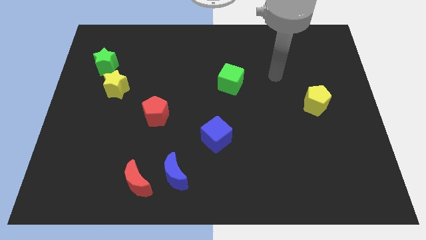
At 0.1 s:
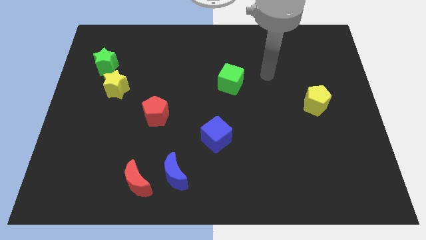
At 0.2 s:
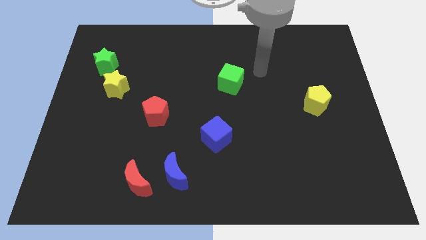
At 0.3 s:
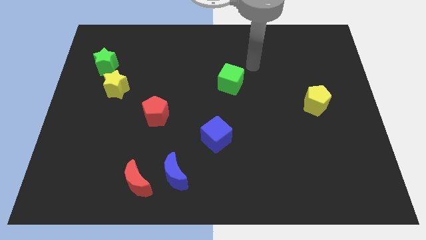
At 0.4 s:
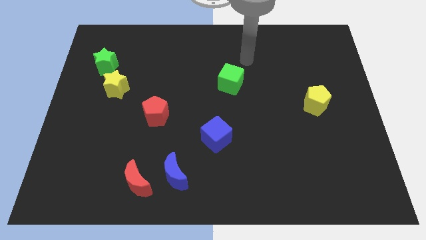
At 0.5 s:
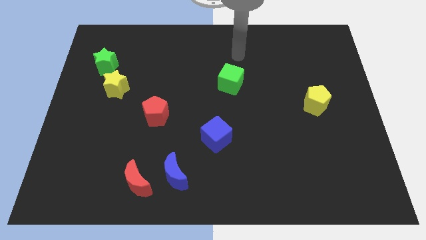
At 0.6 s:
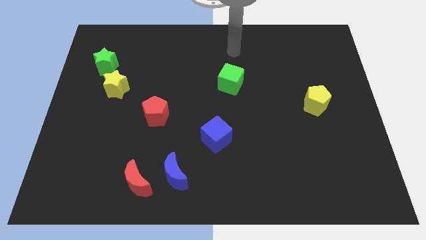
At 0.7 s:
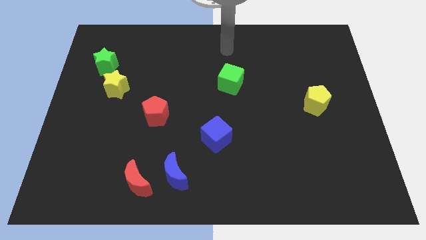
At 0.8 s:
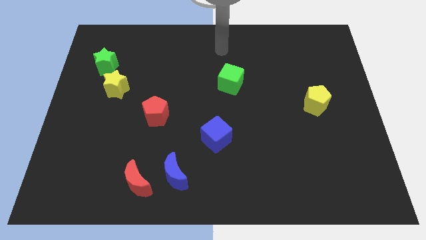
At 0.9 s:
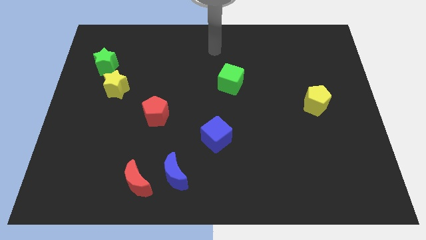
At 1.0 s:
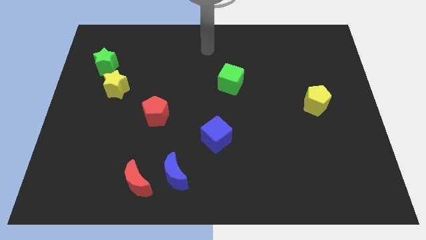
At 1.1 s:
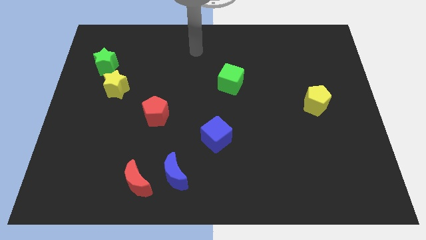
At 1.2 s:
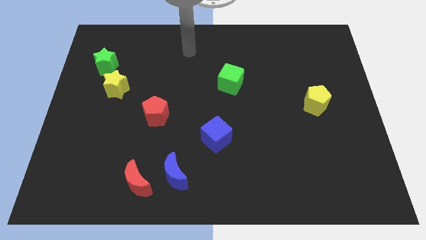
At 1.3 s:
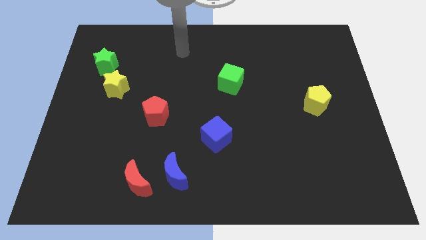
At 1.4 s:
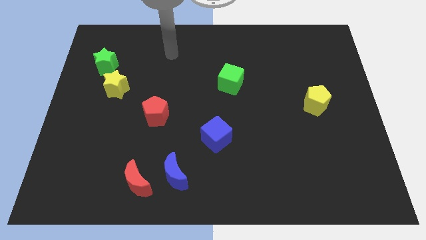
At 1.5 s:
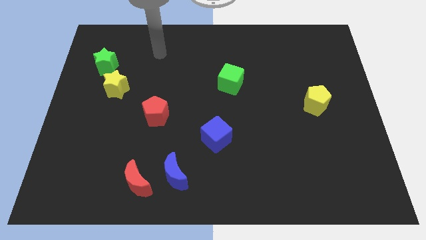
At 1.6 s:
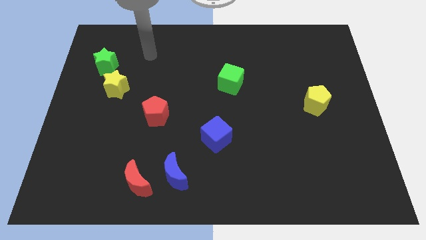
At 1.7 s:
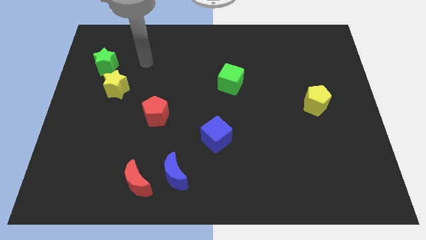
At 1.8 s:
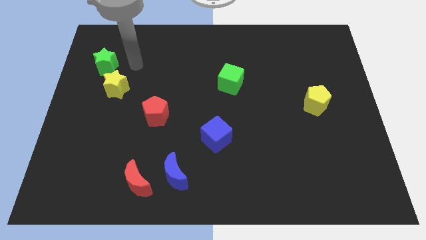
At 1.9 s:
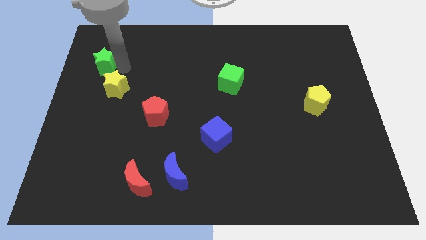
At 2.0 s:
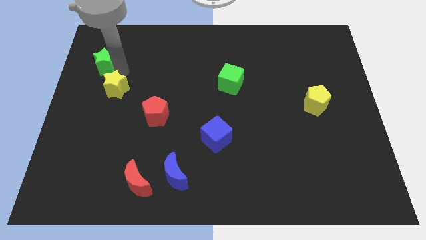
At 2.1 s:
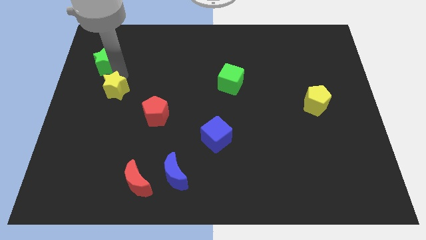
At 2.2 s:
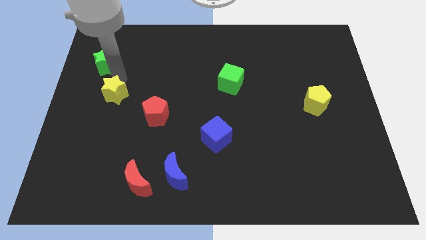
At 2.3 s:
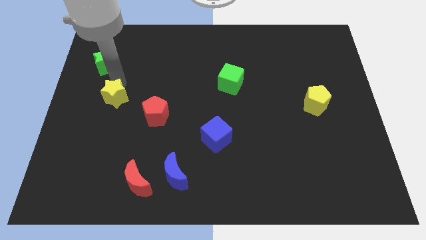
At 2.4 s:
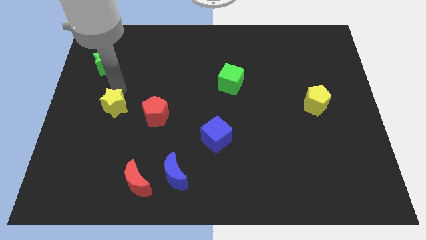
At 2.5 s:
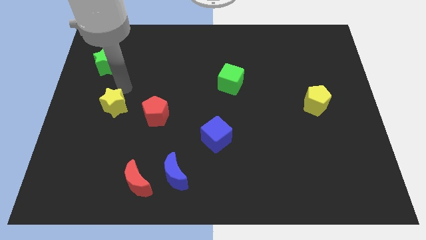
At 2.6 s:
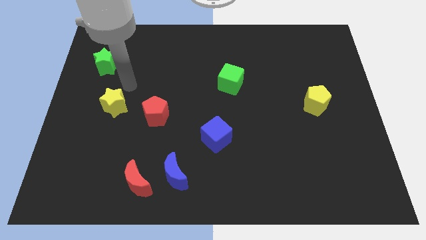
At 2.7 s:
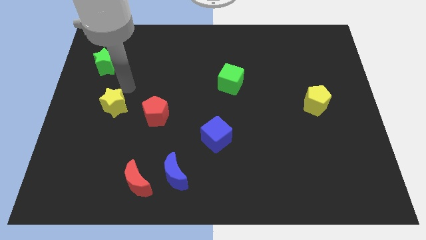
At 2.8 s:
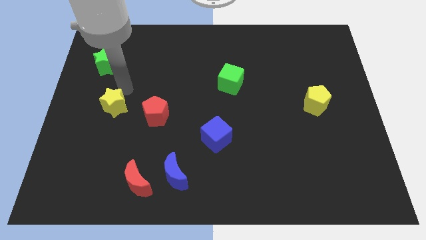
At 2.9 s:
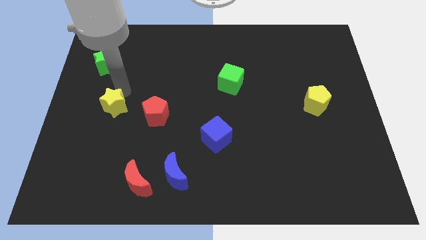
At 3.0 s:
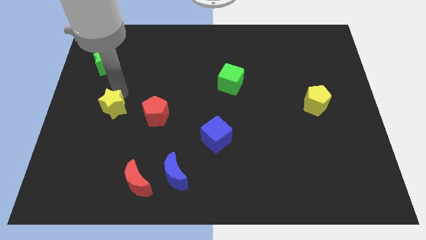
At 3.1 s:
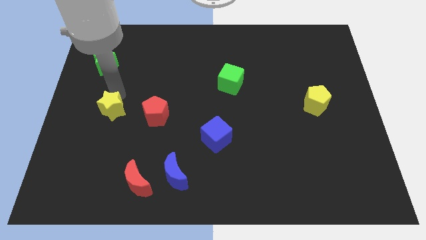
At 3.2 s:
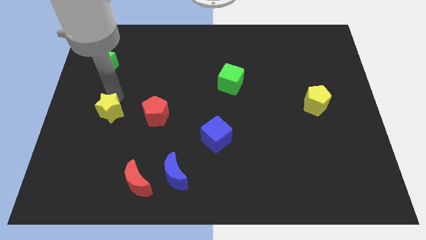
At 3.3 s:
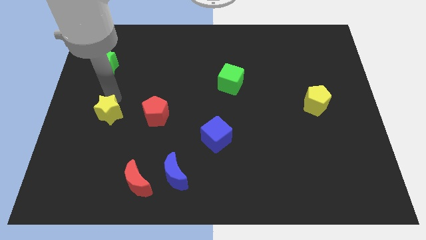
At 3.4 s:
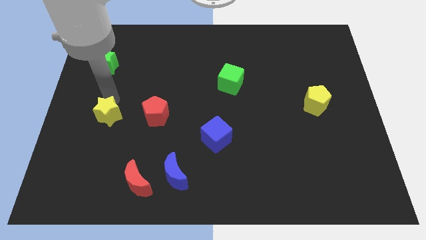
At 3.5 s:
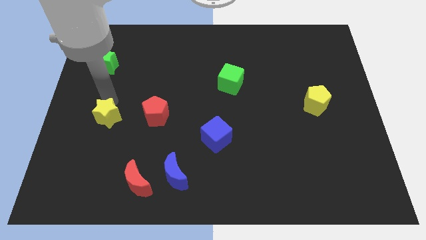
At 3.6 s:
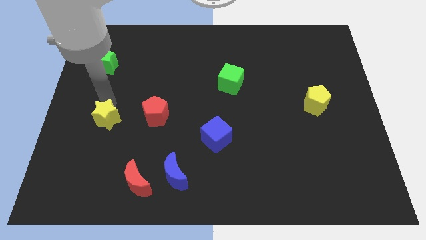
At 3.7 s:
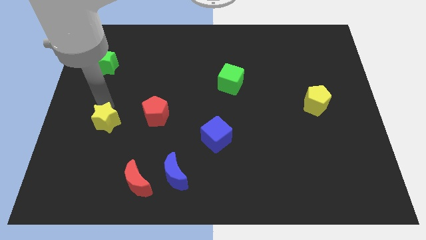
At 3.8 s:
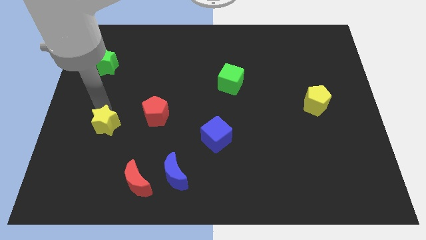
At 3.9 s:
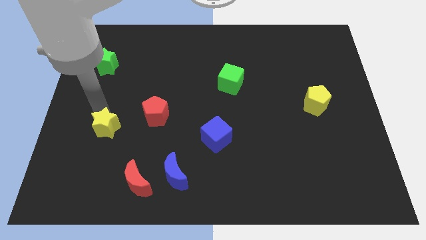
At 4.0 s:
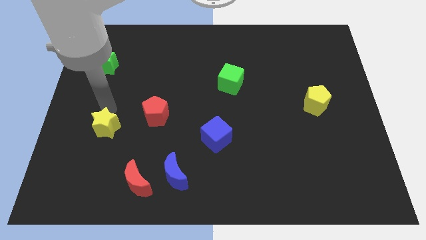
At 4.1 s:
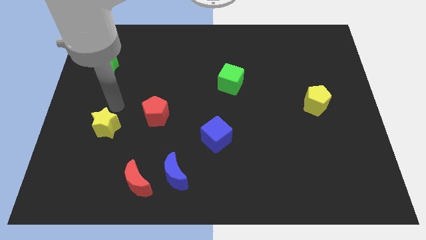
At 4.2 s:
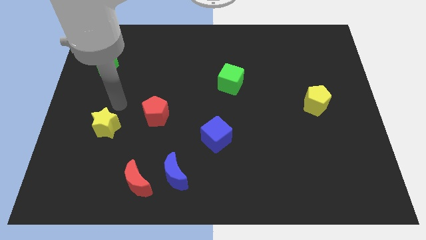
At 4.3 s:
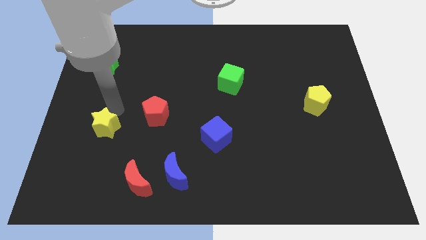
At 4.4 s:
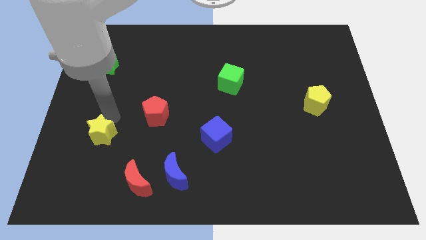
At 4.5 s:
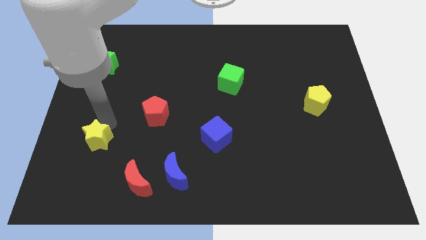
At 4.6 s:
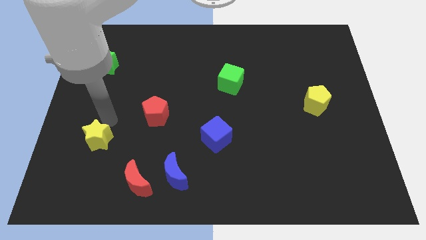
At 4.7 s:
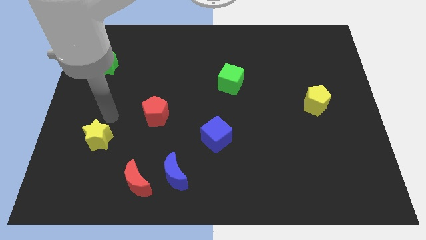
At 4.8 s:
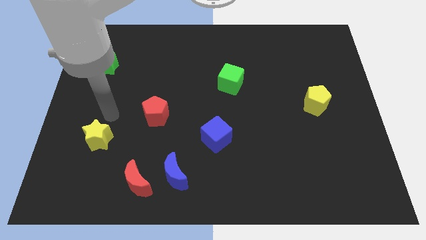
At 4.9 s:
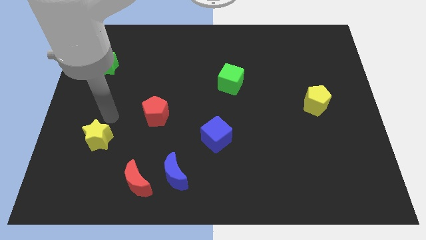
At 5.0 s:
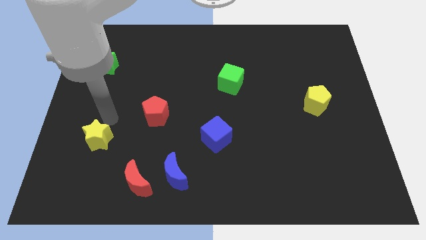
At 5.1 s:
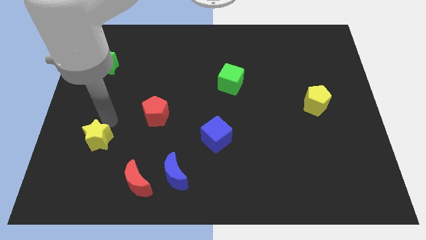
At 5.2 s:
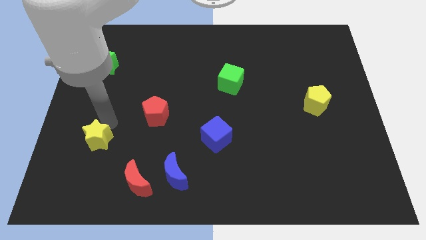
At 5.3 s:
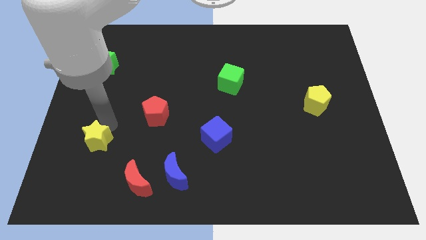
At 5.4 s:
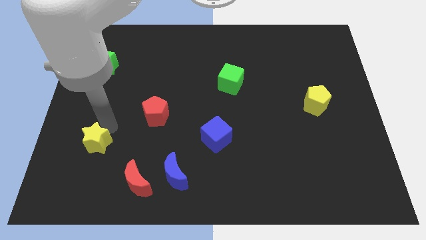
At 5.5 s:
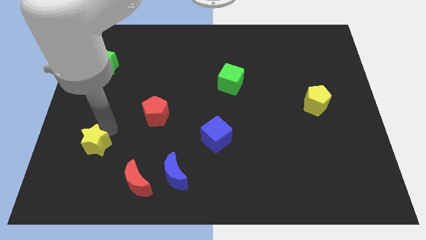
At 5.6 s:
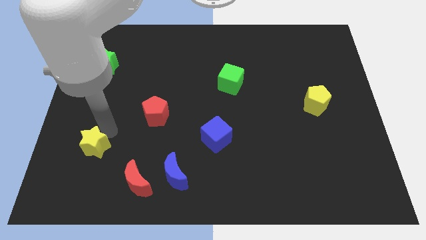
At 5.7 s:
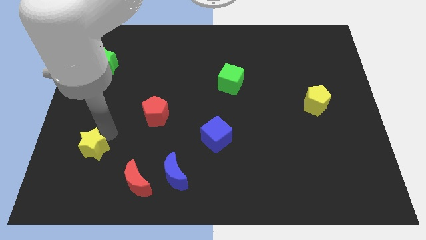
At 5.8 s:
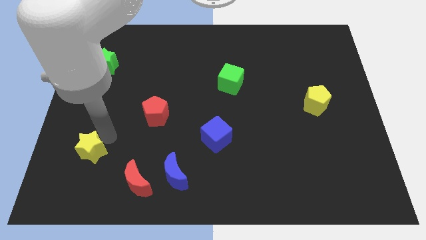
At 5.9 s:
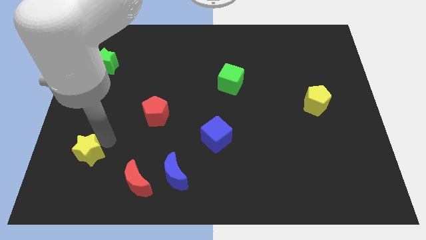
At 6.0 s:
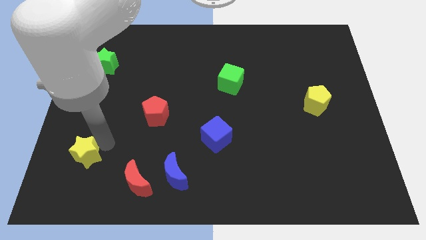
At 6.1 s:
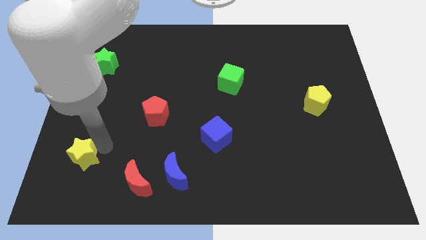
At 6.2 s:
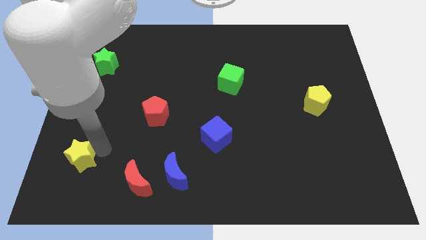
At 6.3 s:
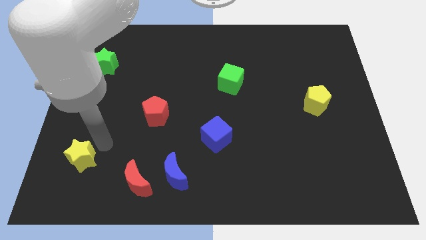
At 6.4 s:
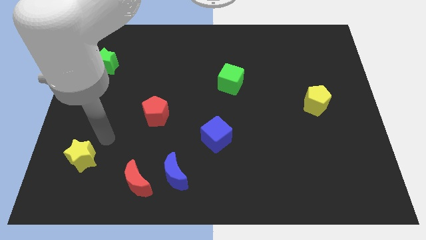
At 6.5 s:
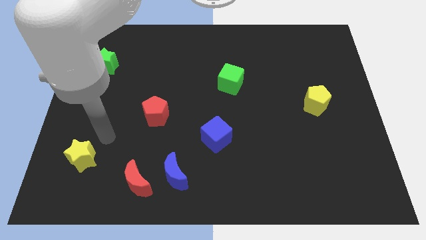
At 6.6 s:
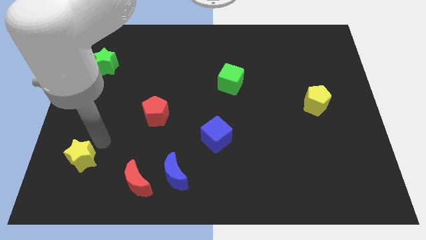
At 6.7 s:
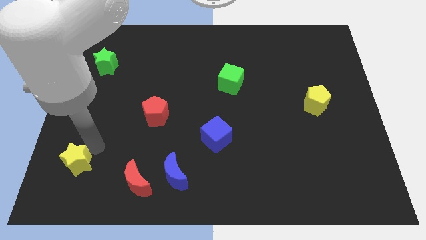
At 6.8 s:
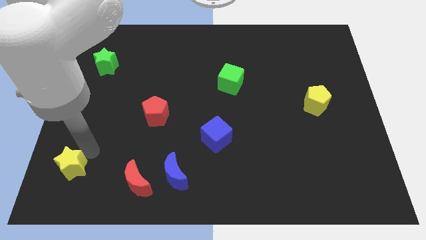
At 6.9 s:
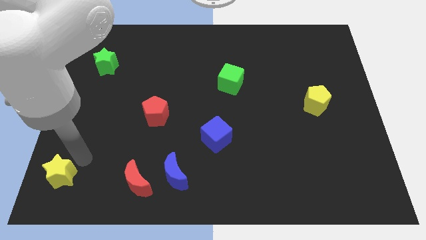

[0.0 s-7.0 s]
slide the yellow star to the bottom left of the board
